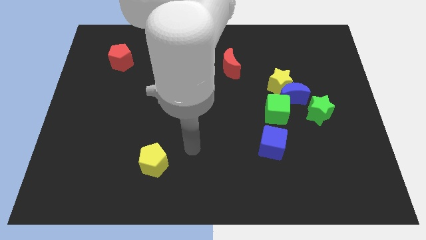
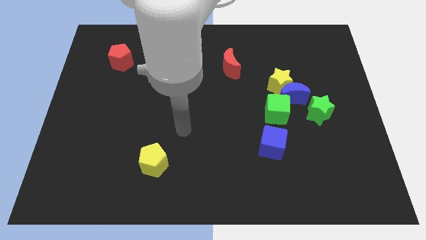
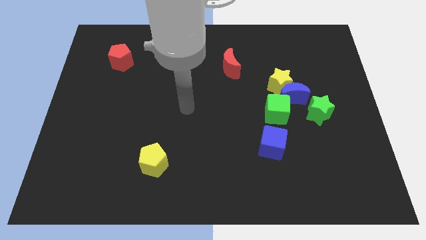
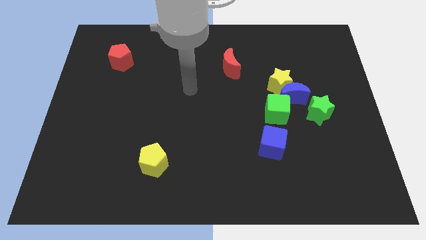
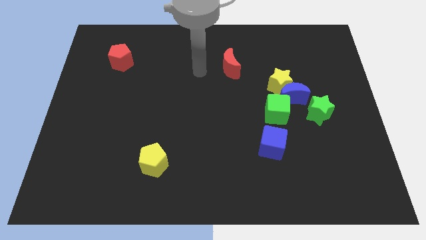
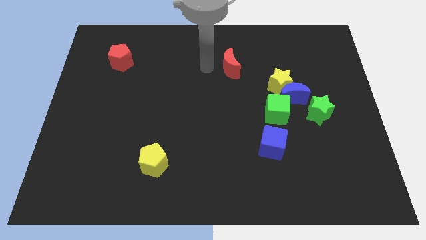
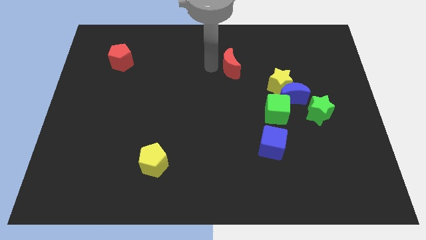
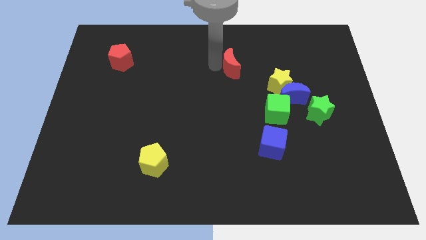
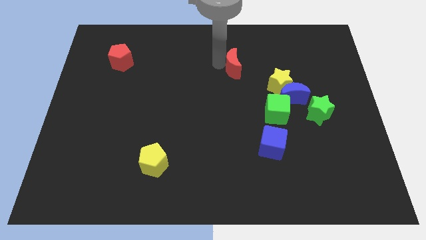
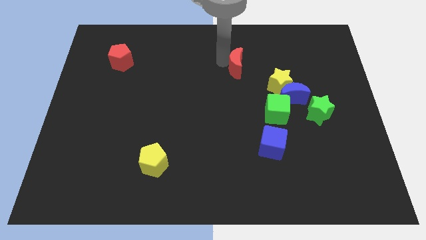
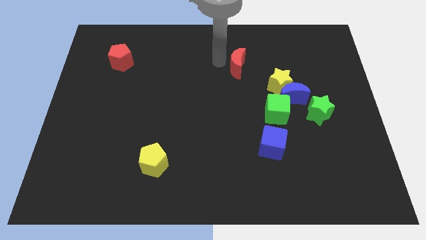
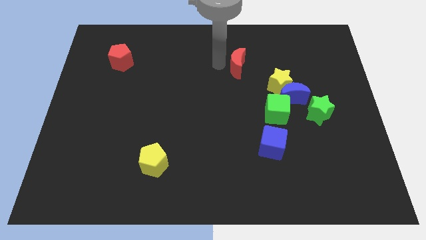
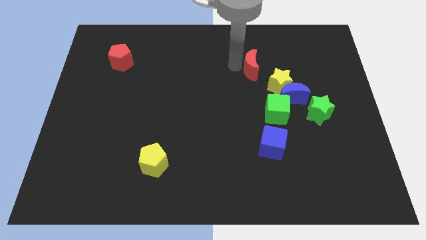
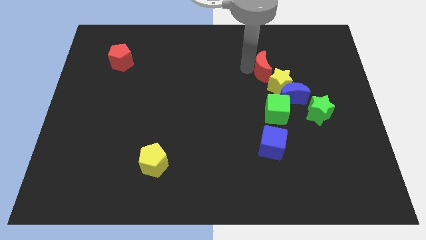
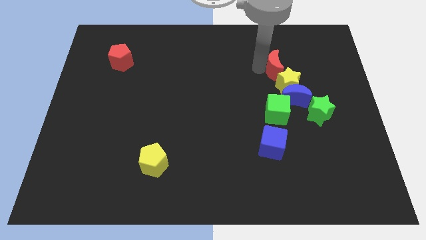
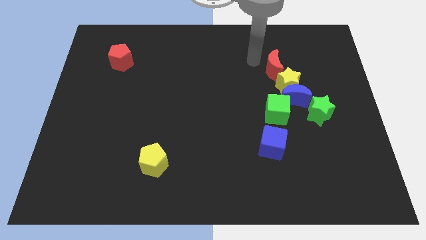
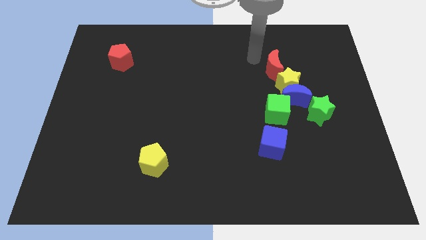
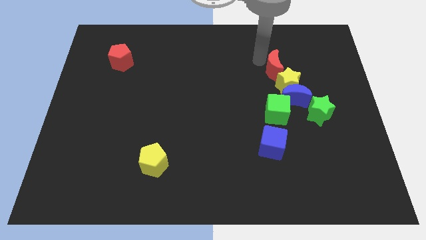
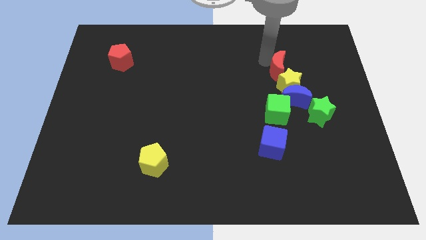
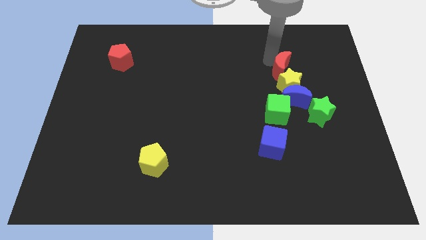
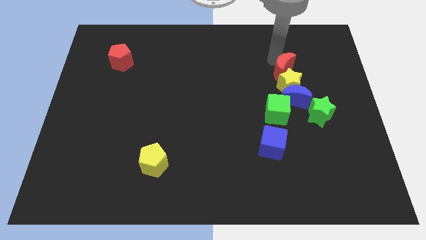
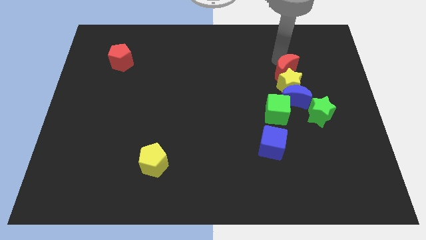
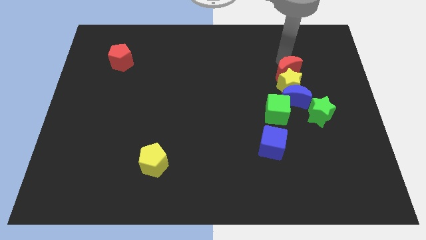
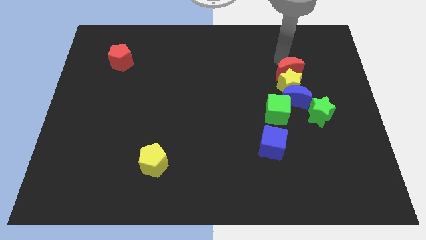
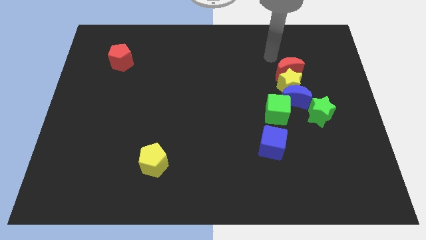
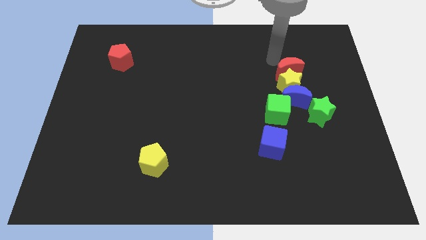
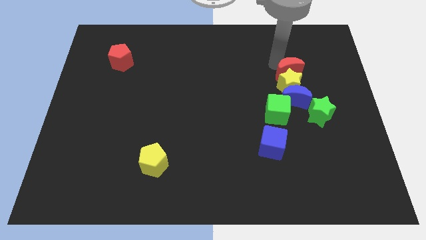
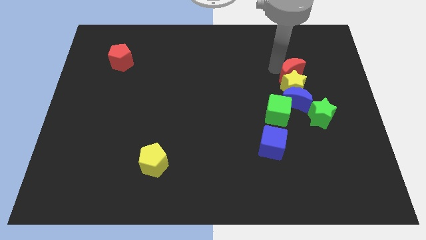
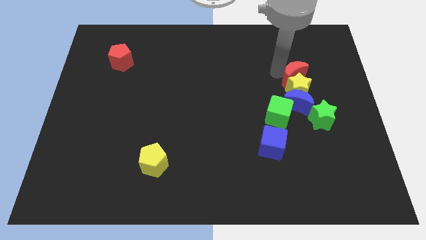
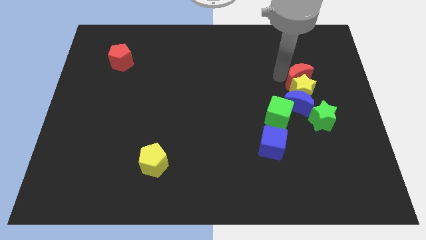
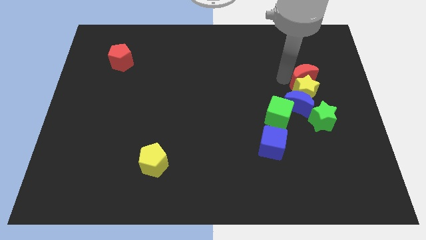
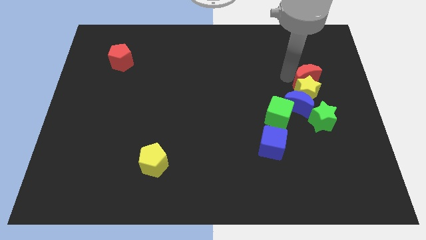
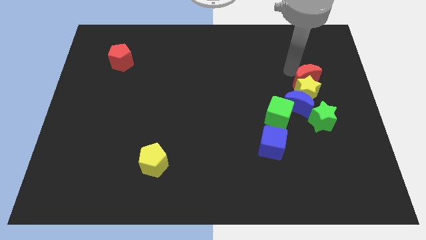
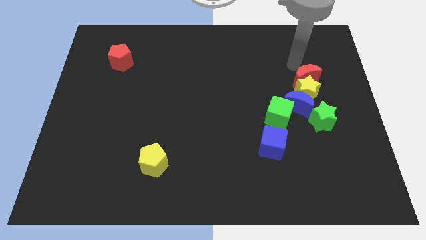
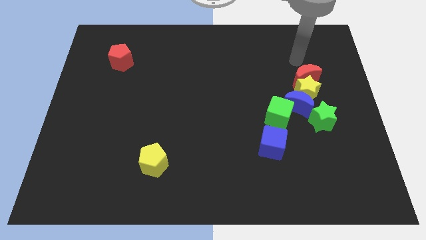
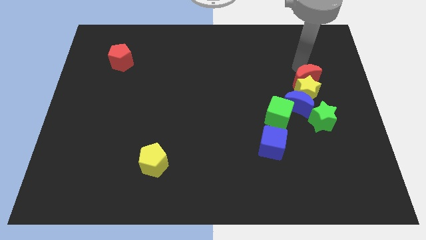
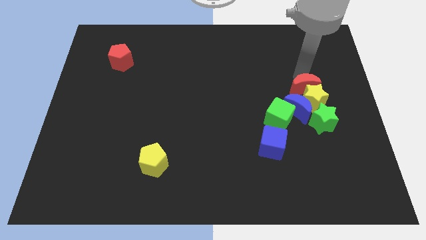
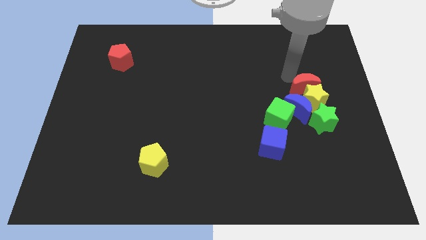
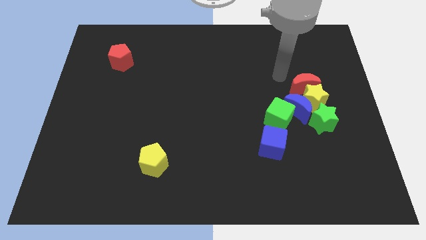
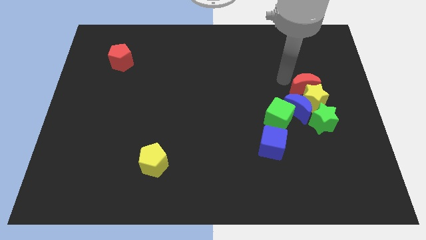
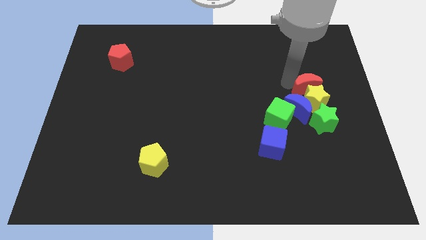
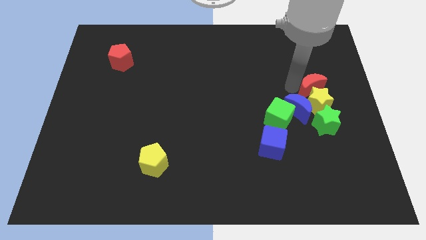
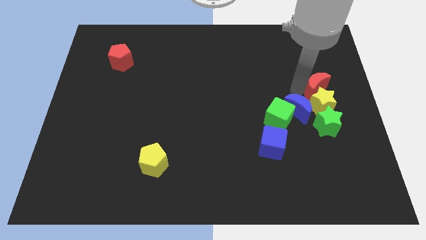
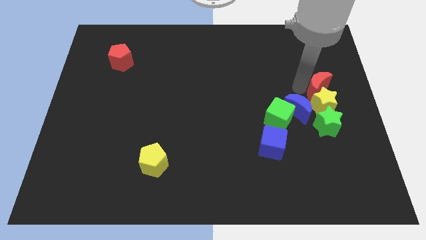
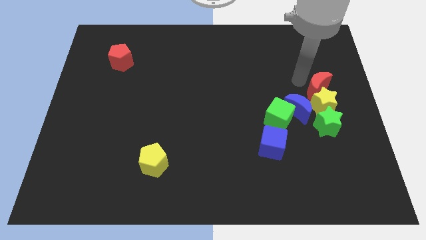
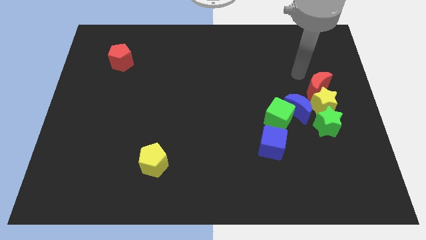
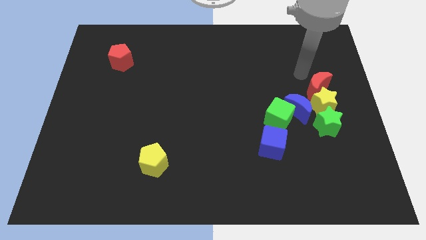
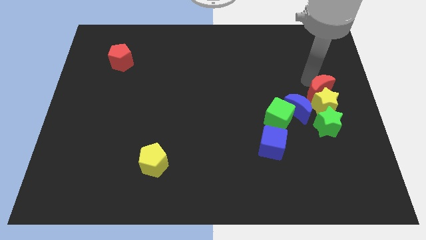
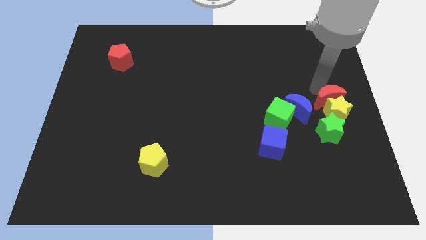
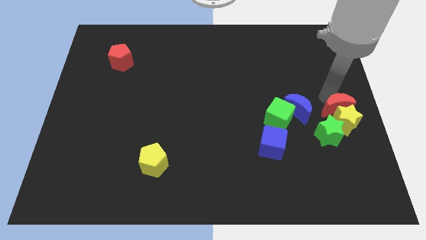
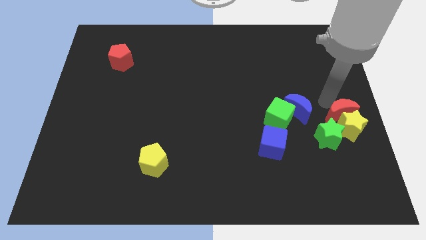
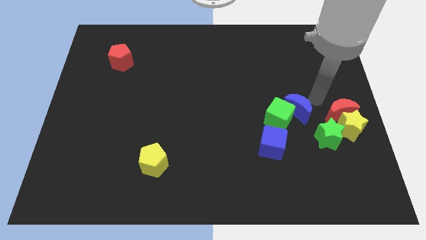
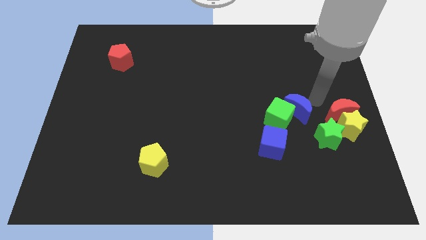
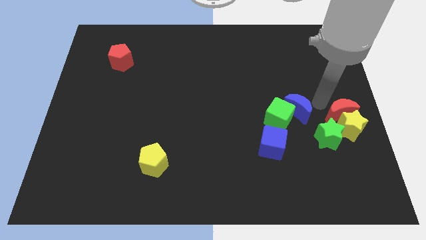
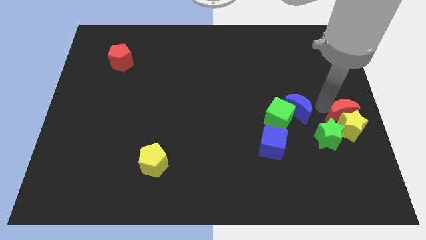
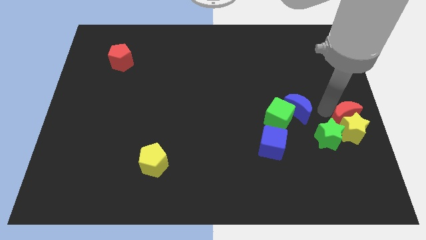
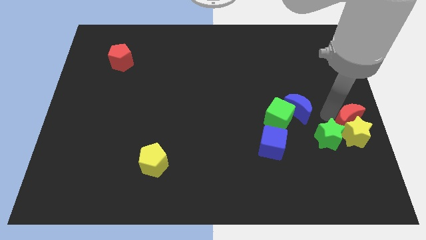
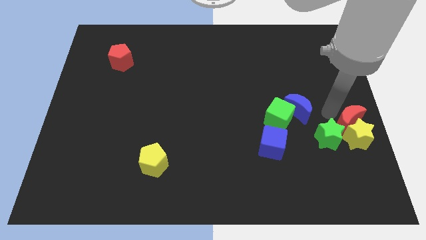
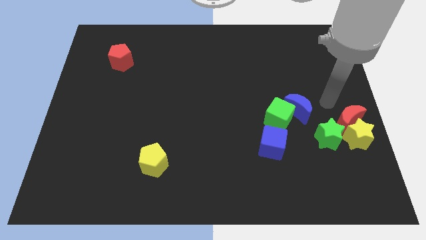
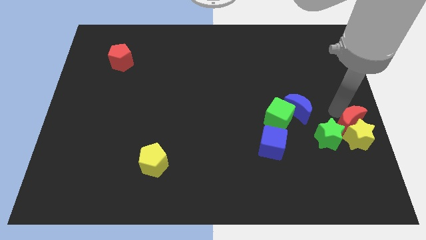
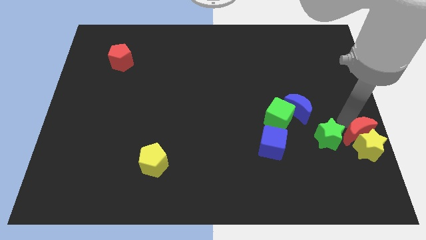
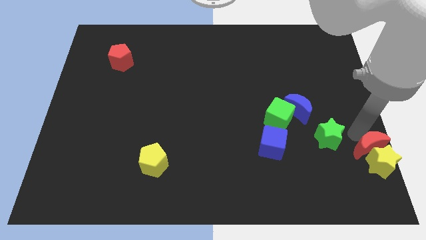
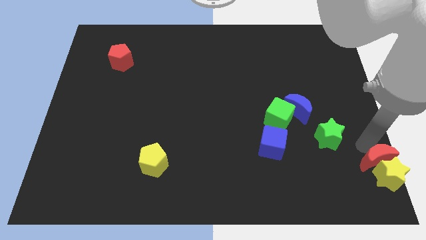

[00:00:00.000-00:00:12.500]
move the red moon to the lower right corner
